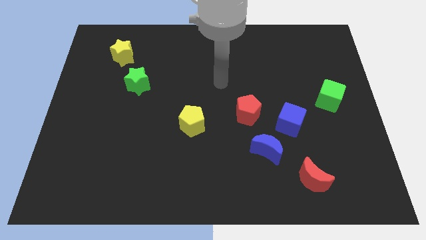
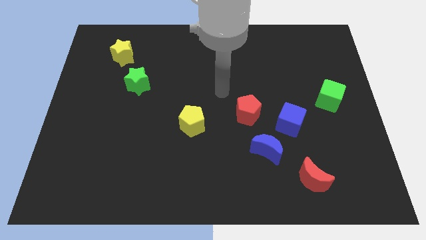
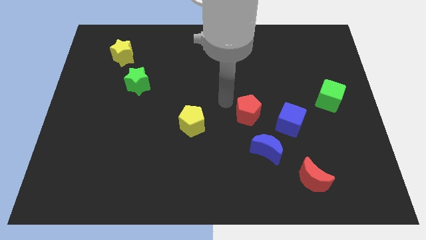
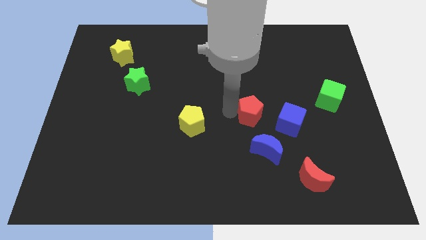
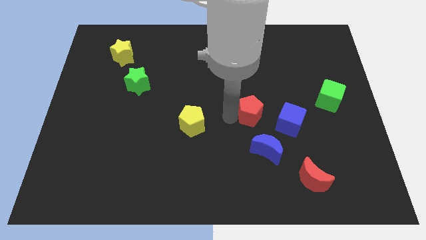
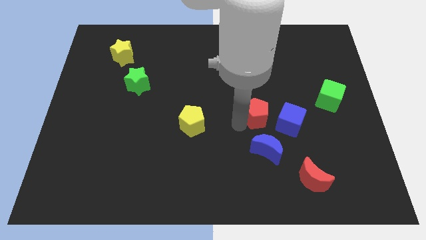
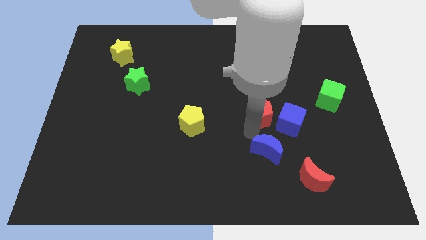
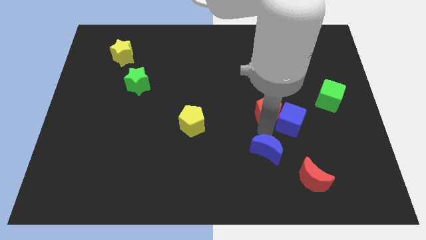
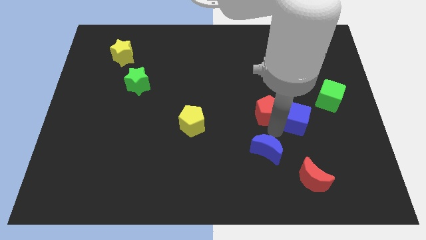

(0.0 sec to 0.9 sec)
pull the blue moon apart from the blue cube

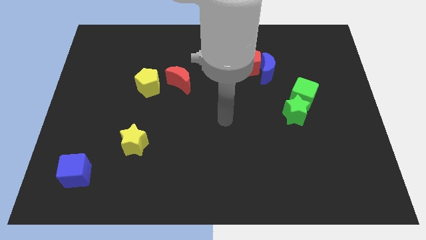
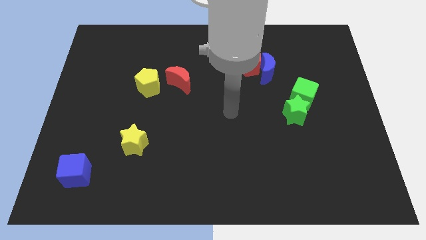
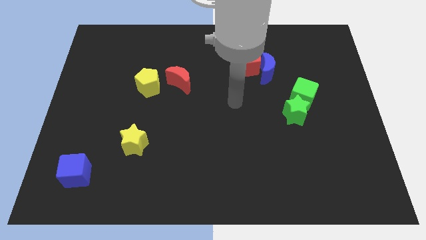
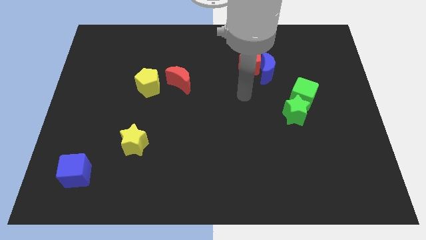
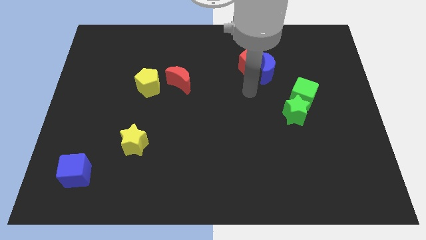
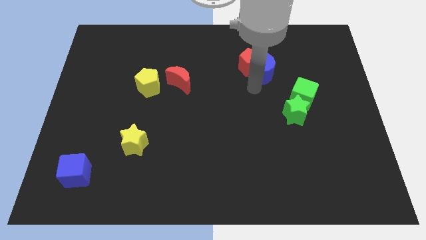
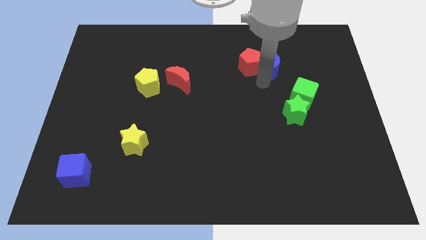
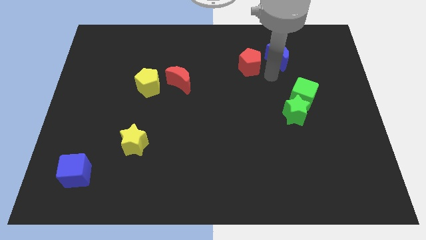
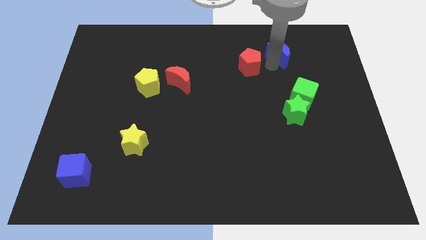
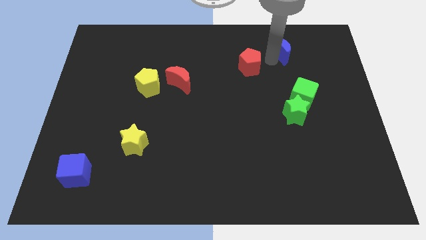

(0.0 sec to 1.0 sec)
pull the red pentagon apart from the blue moon

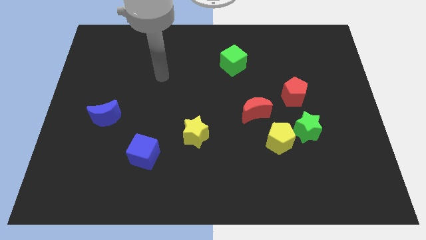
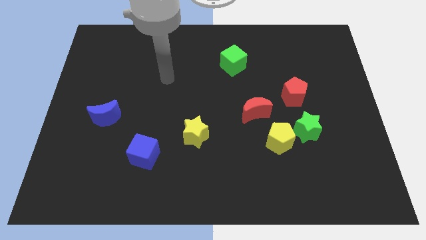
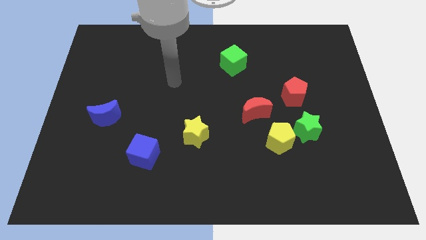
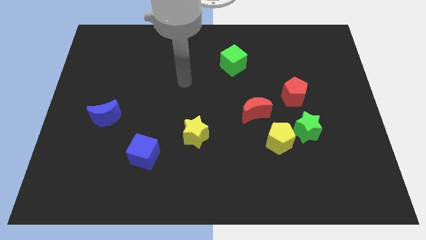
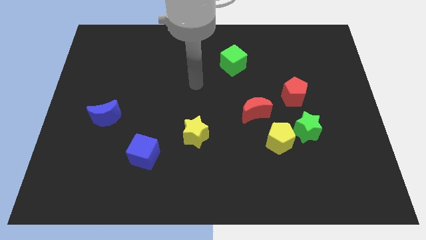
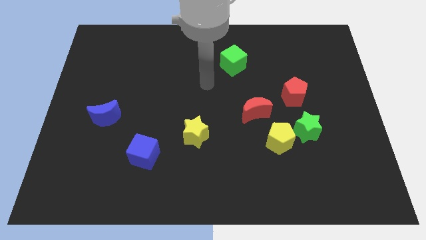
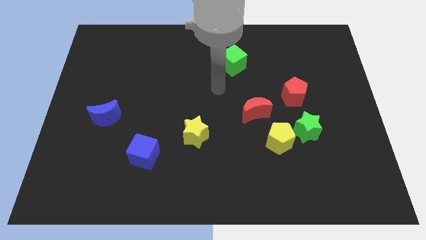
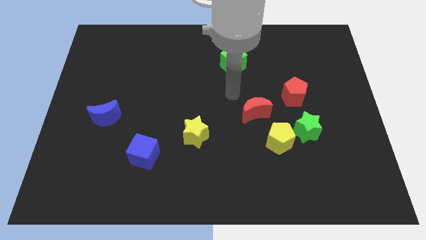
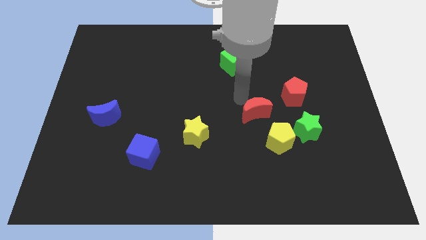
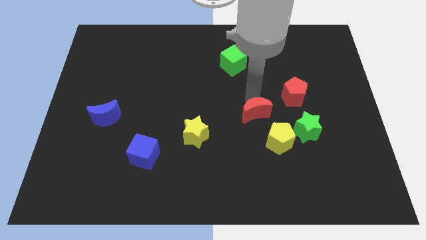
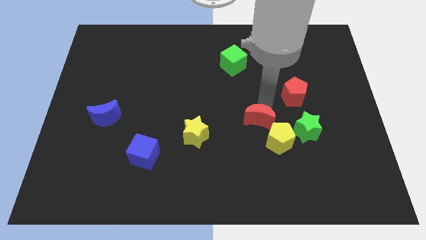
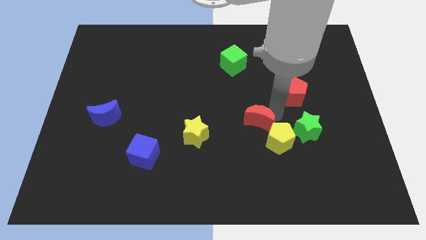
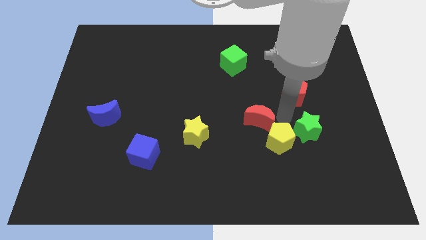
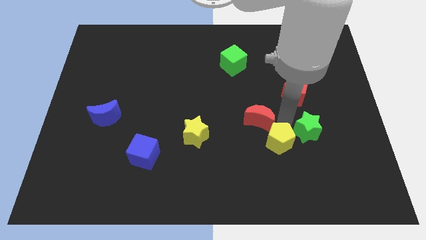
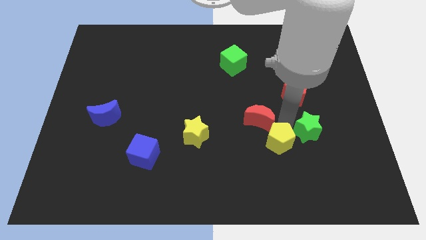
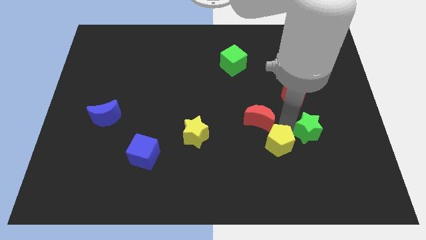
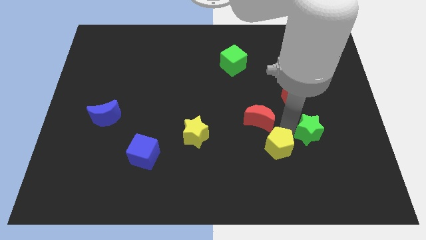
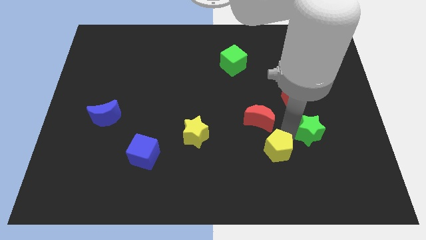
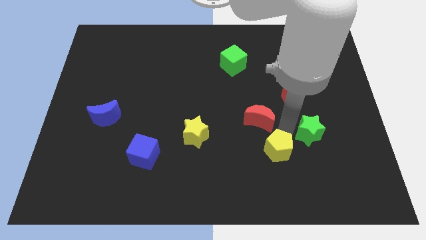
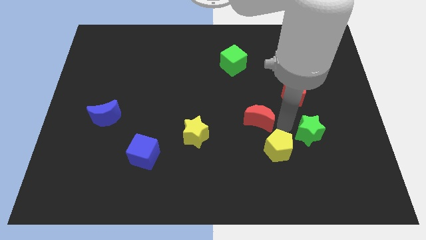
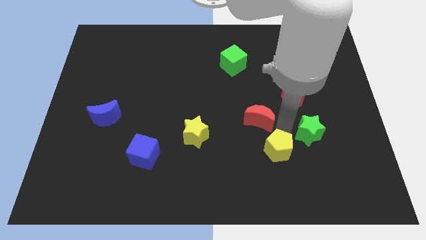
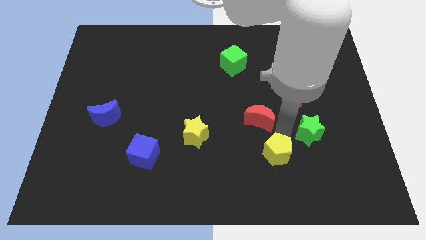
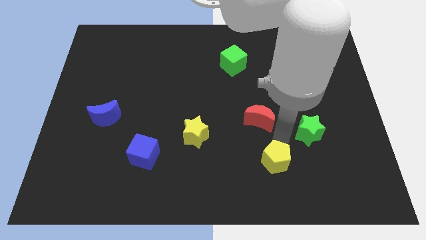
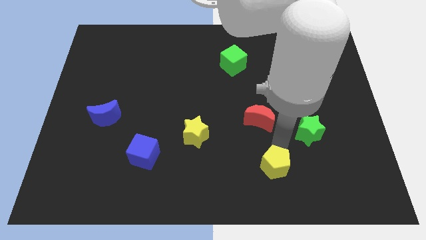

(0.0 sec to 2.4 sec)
pull the yellow pentagon apart from the green star and red moon

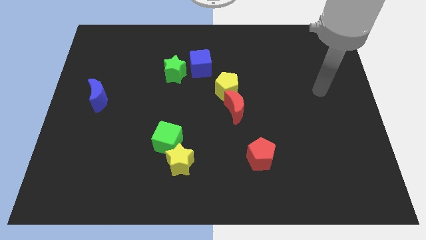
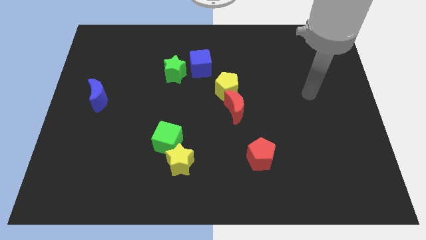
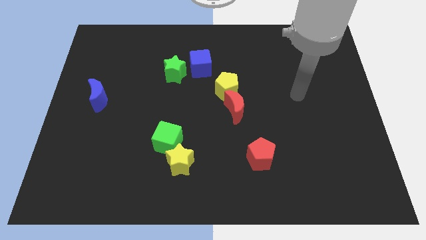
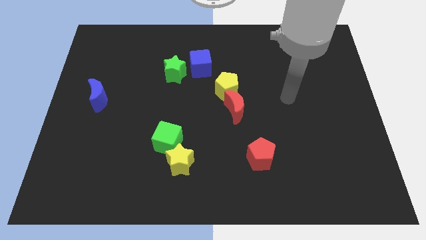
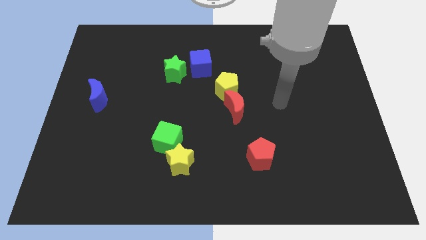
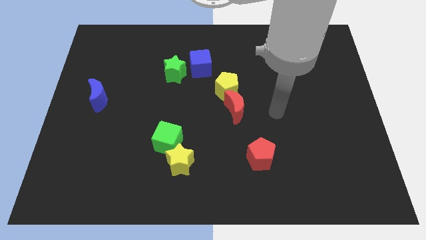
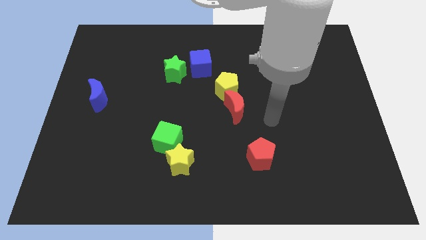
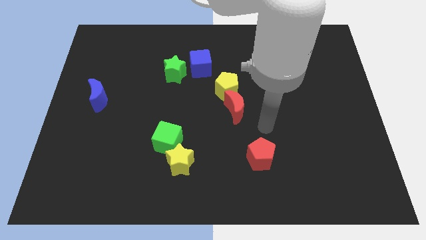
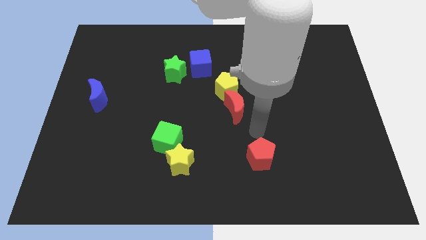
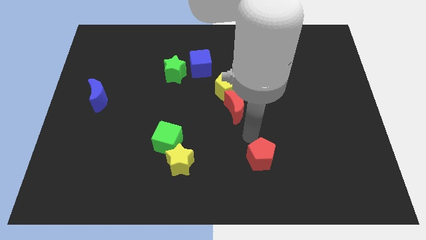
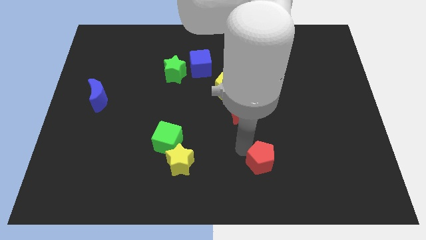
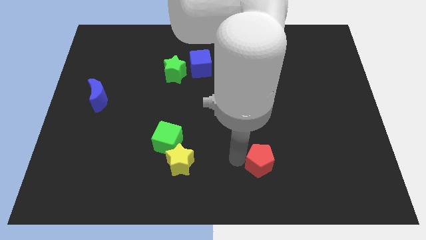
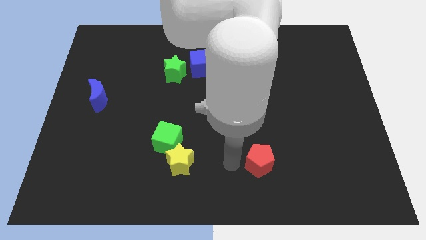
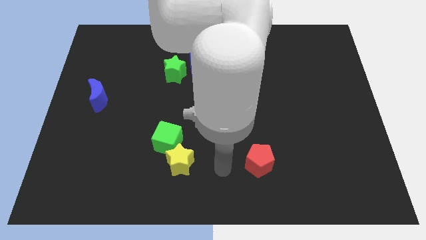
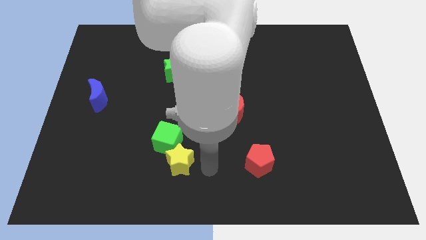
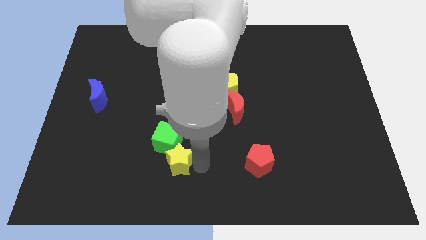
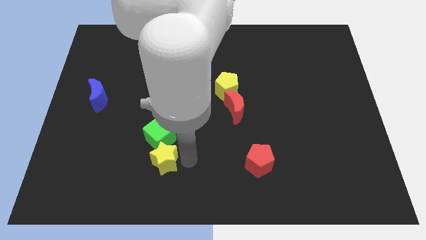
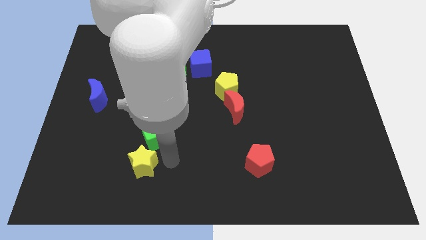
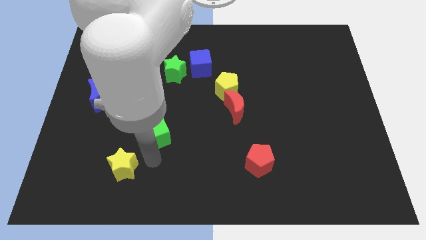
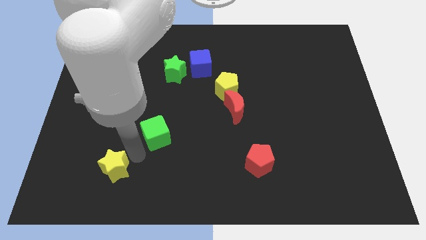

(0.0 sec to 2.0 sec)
separate the green cube from the yellow star

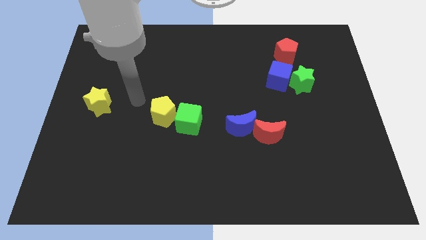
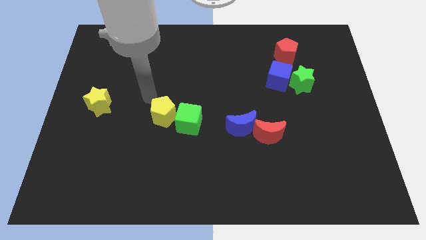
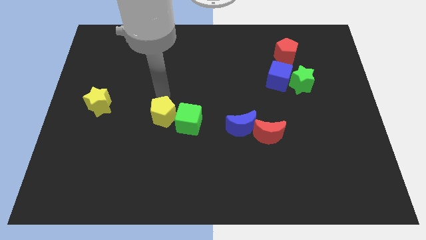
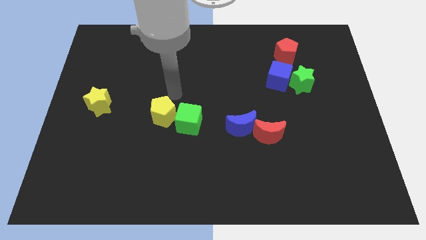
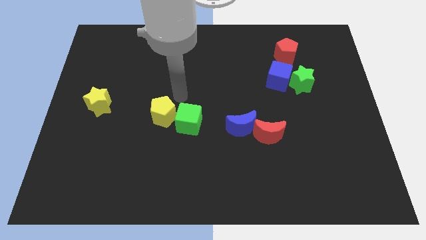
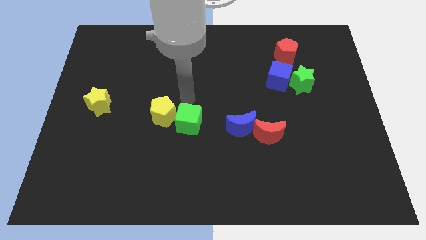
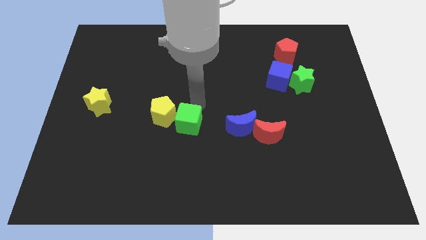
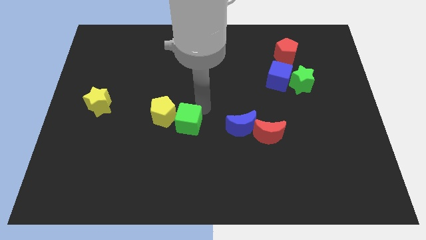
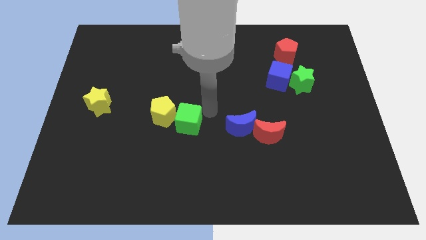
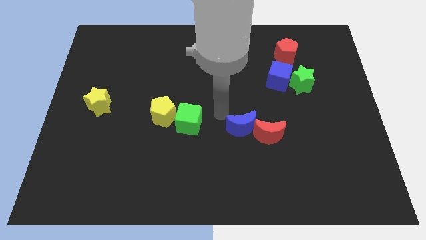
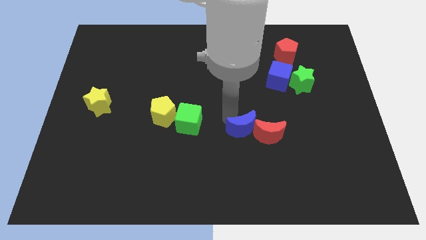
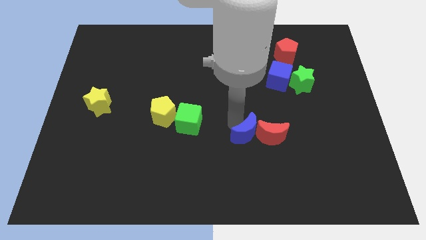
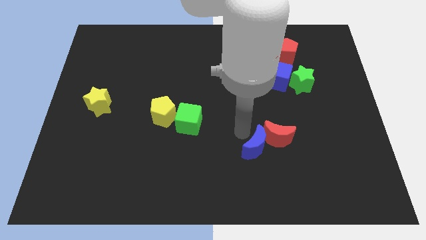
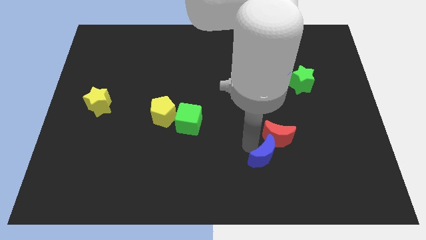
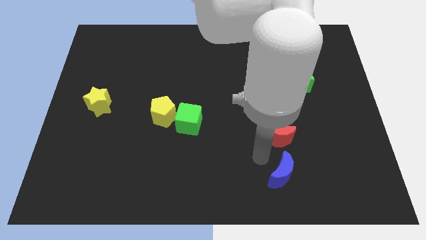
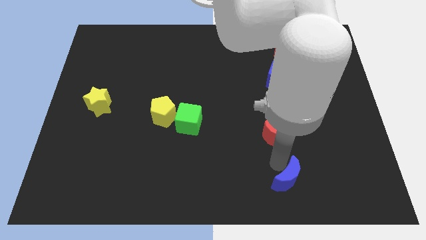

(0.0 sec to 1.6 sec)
separate the red moon from the blue moon

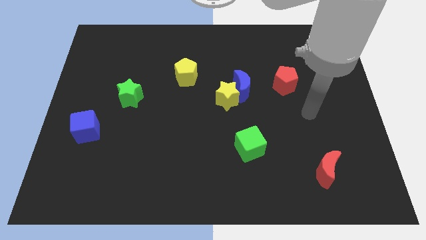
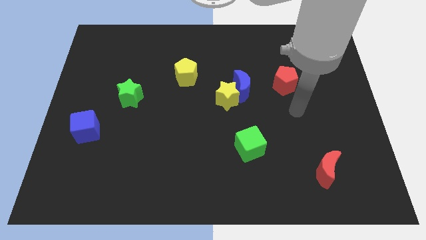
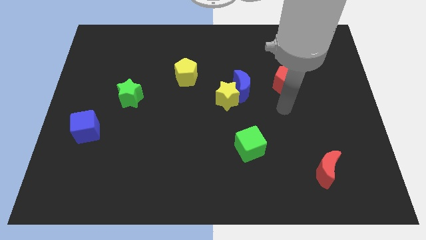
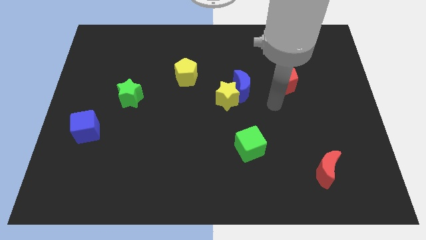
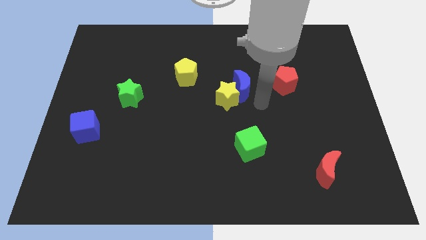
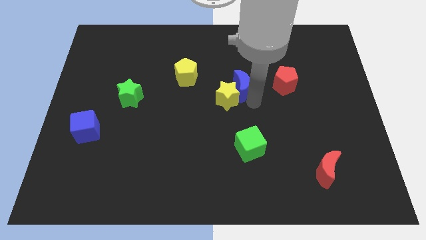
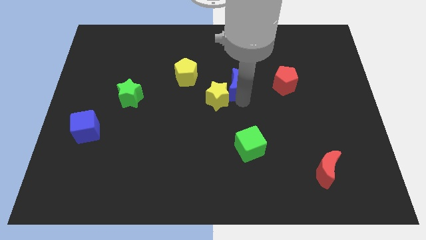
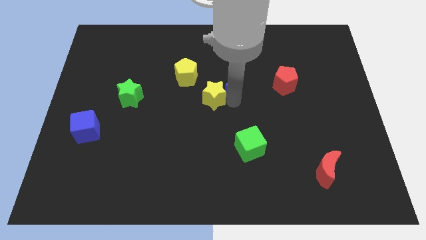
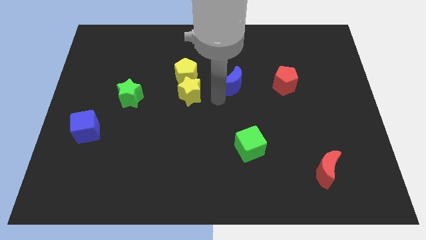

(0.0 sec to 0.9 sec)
pull the blue moon apart from the yellow star

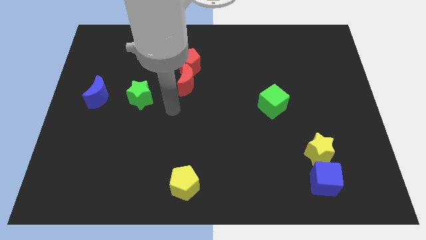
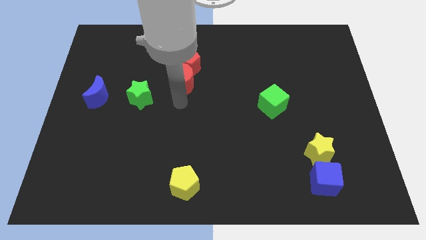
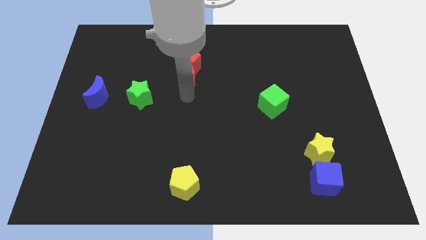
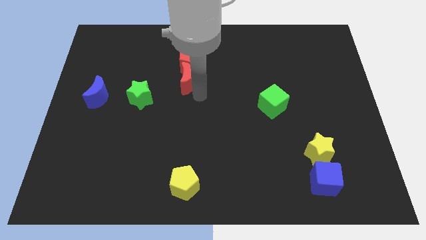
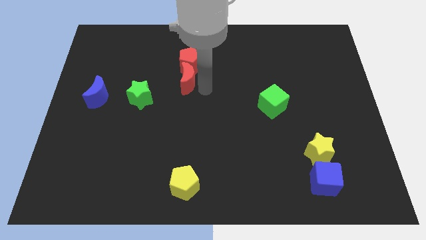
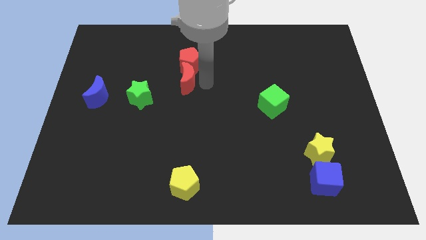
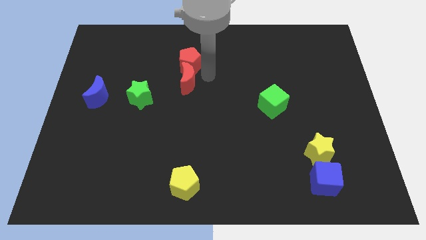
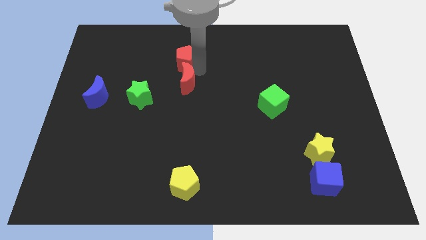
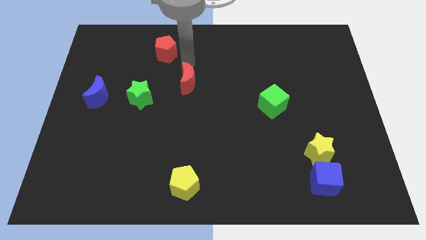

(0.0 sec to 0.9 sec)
pull the red moon apart from the red pentagon
